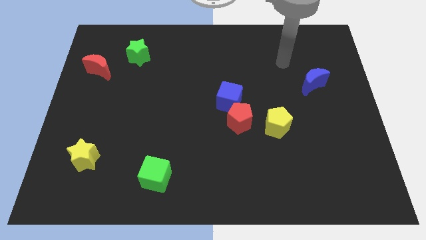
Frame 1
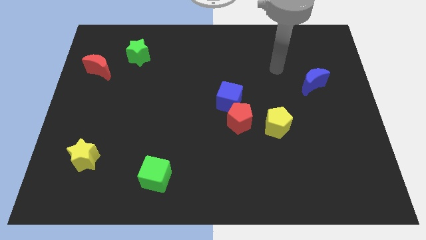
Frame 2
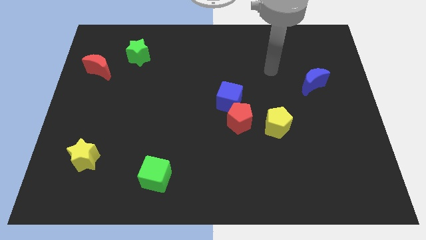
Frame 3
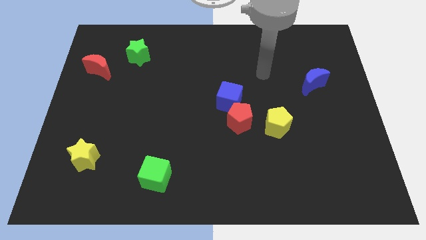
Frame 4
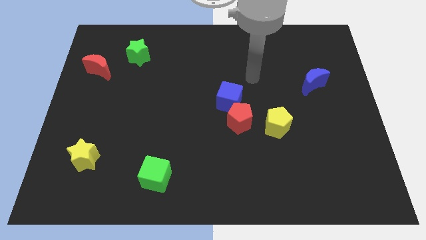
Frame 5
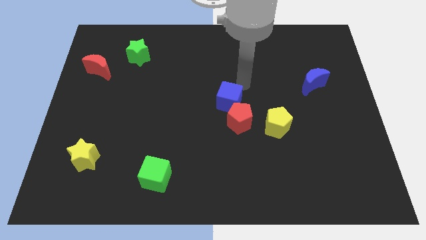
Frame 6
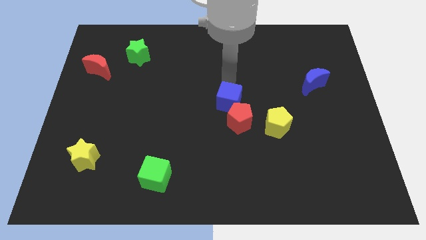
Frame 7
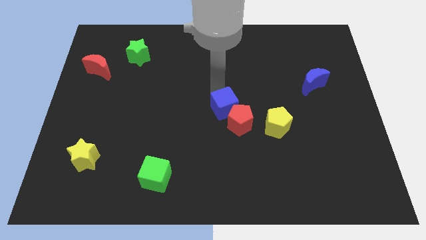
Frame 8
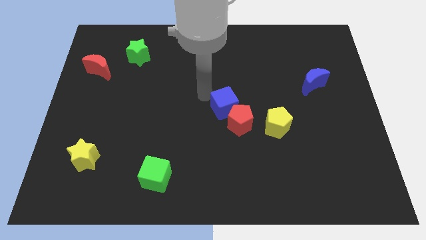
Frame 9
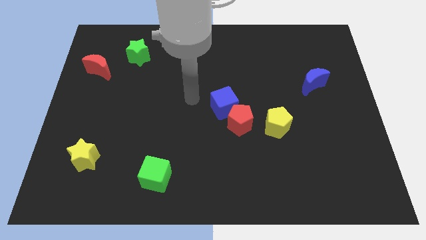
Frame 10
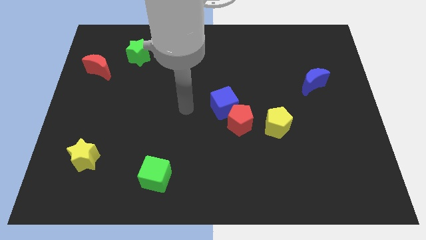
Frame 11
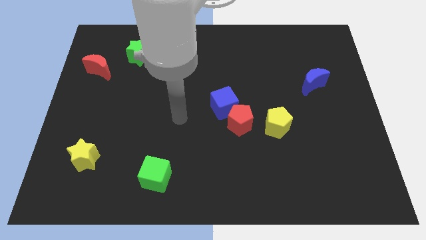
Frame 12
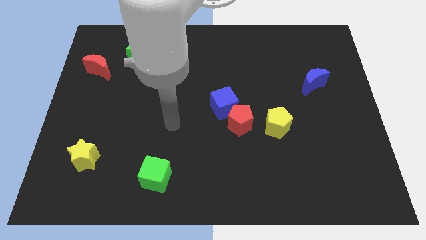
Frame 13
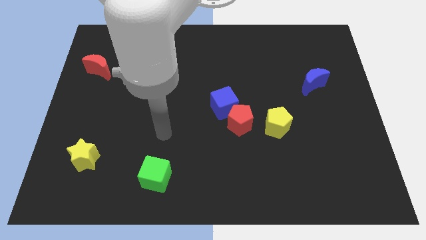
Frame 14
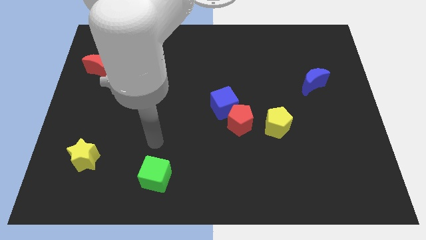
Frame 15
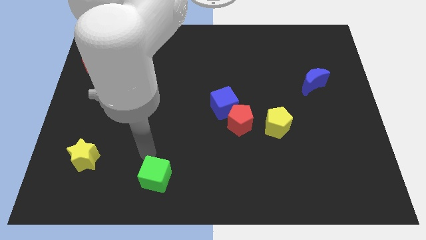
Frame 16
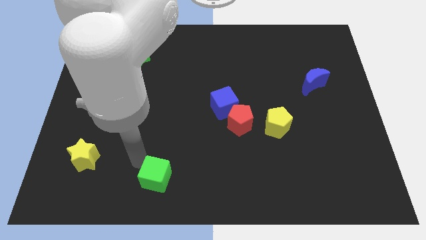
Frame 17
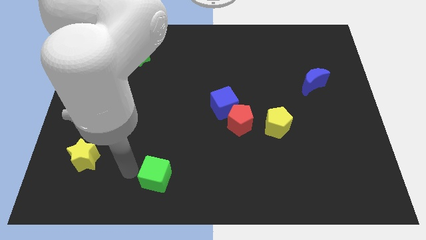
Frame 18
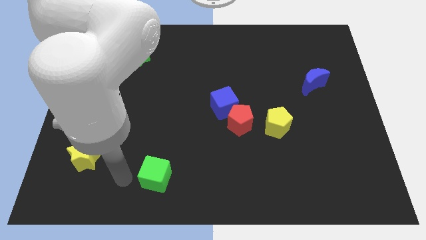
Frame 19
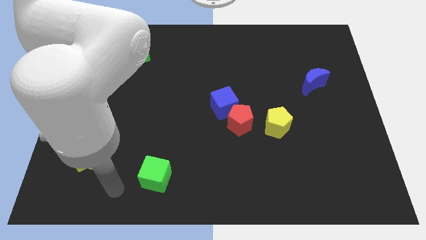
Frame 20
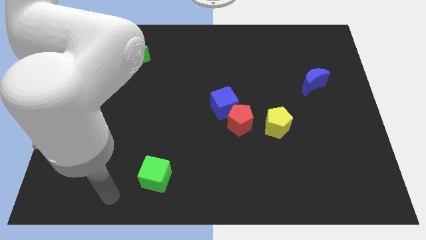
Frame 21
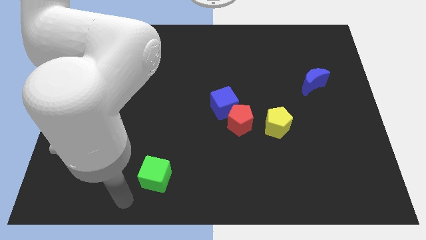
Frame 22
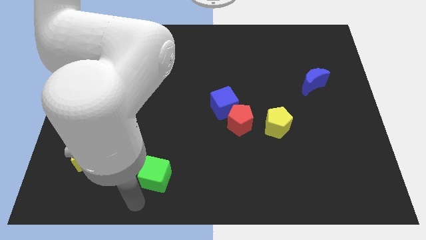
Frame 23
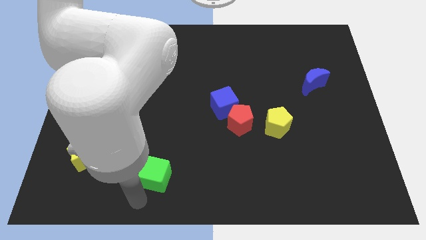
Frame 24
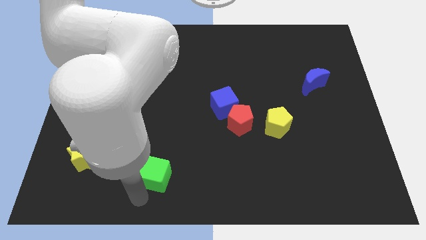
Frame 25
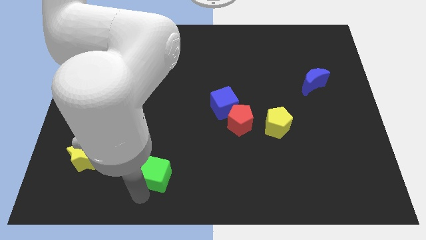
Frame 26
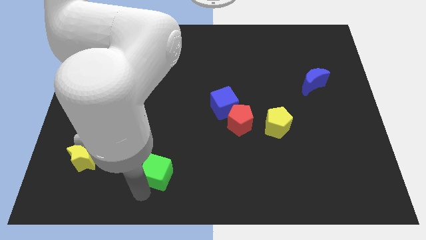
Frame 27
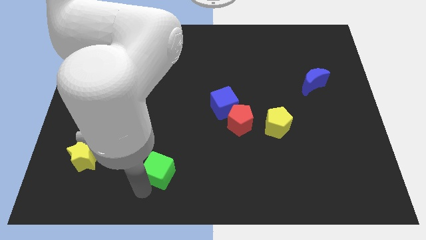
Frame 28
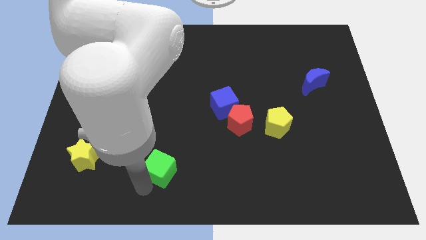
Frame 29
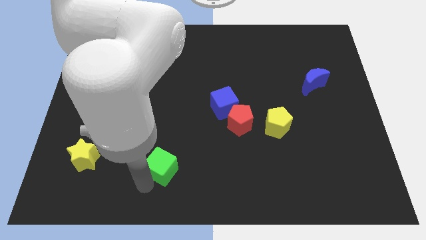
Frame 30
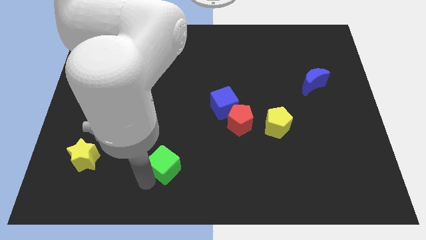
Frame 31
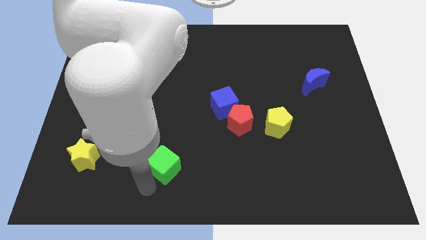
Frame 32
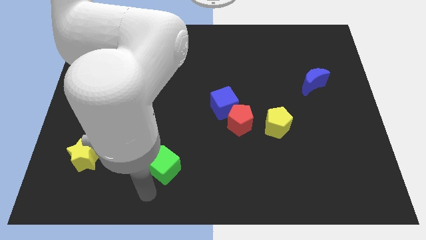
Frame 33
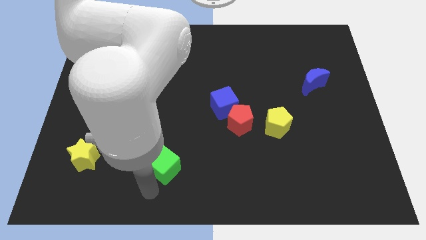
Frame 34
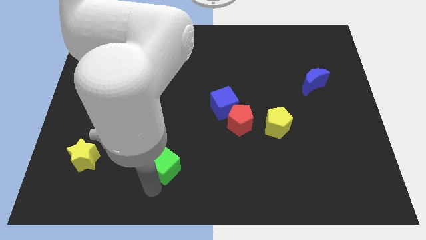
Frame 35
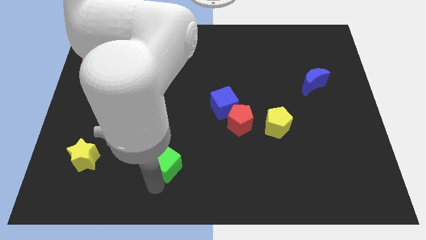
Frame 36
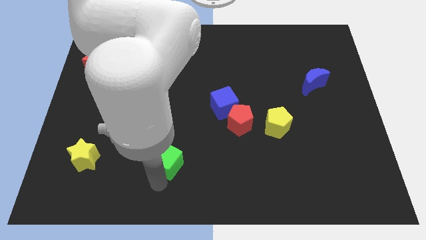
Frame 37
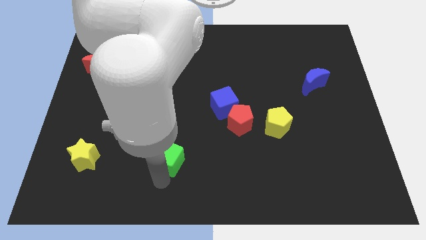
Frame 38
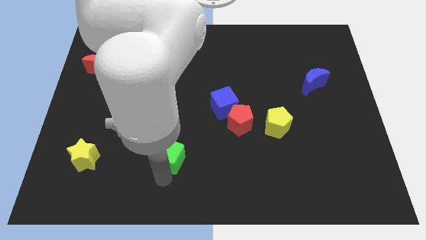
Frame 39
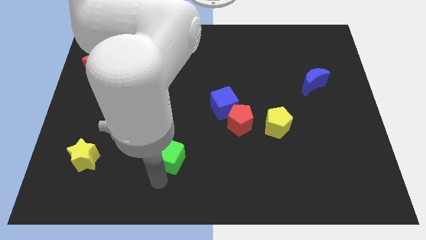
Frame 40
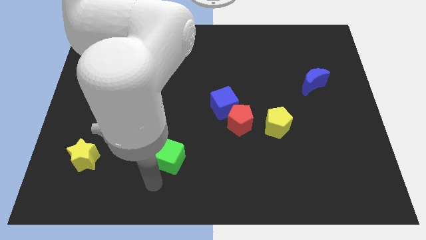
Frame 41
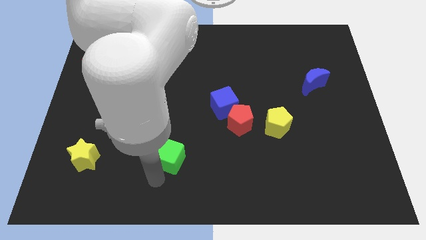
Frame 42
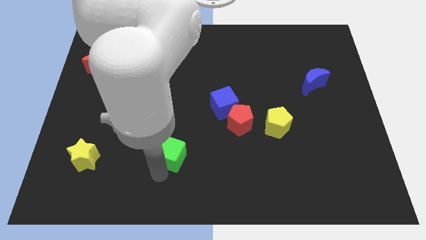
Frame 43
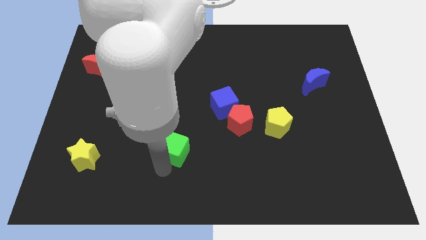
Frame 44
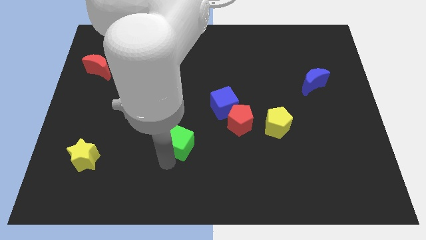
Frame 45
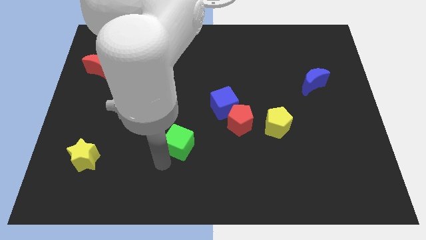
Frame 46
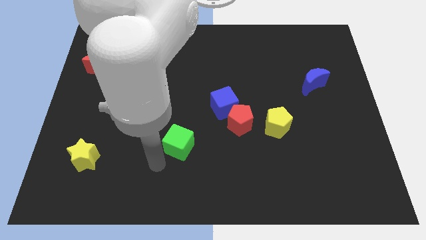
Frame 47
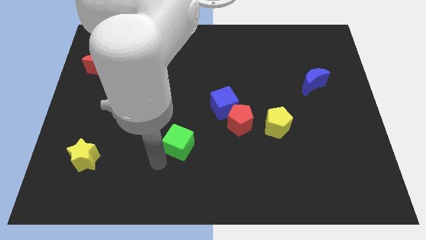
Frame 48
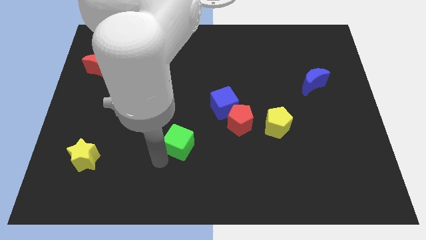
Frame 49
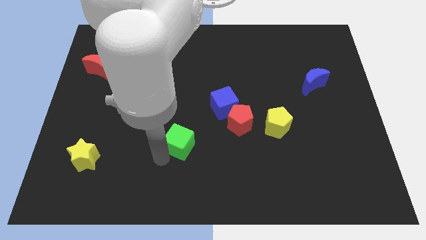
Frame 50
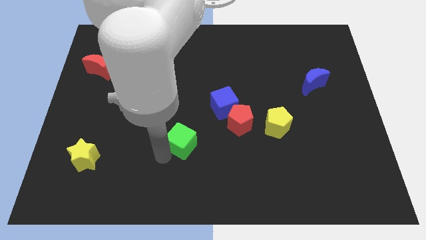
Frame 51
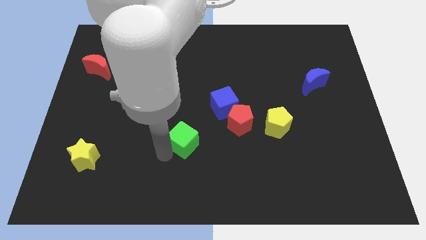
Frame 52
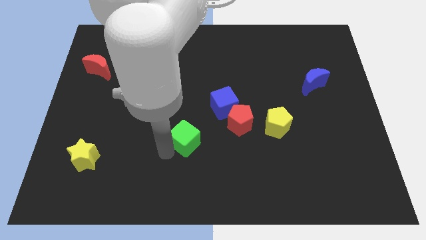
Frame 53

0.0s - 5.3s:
slide the green cube diagonally down and to the left of the blue cube

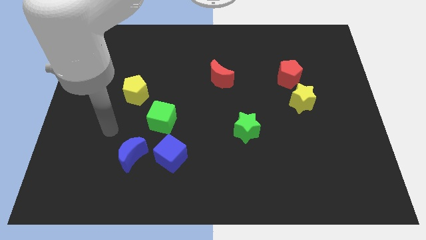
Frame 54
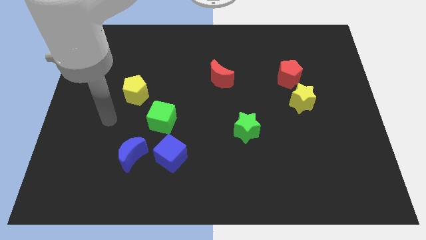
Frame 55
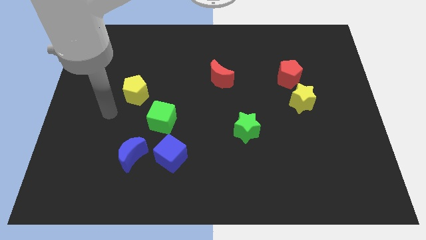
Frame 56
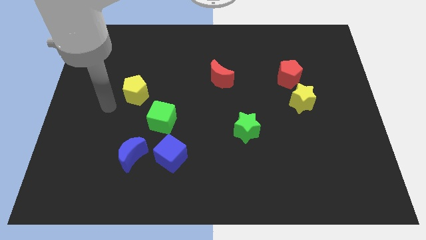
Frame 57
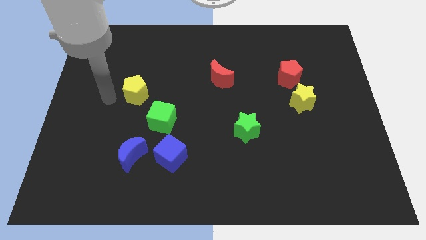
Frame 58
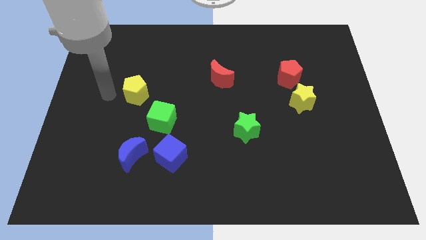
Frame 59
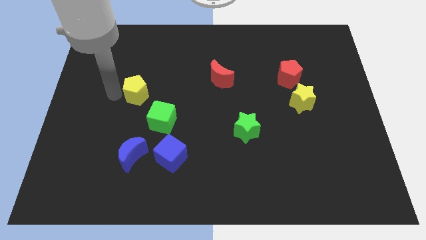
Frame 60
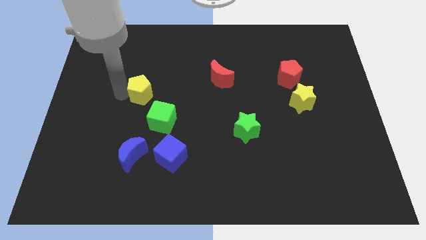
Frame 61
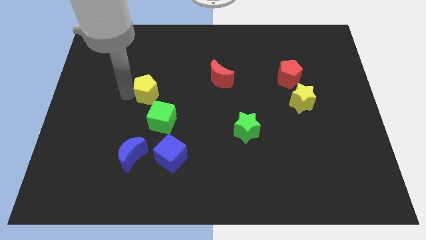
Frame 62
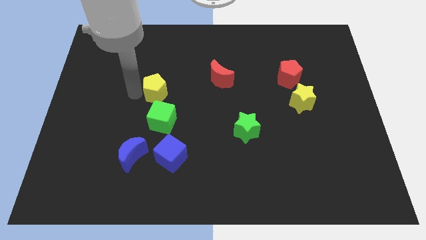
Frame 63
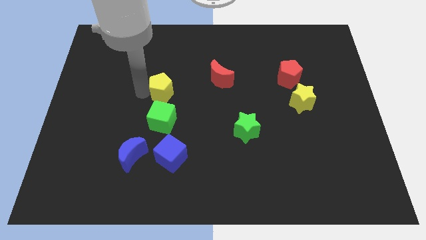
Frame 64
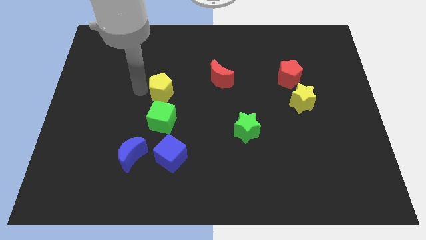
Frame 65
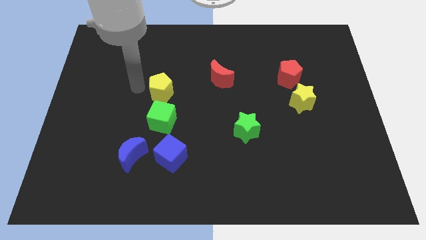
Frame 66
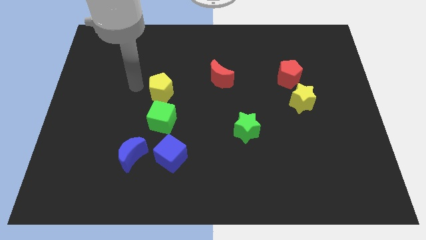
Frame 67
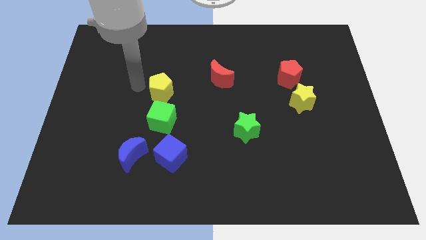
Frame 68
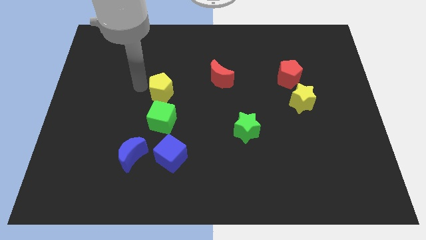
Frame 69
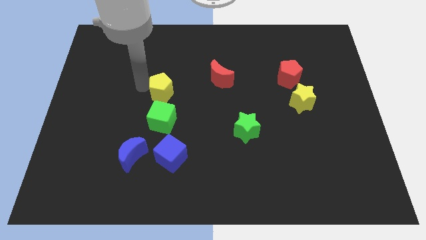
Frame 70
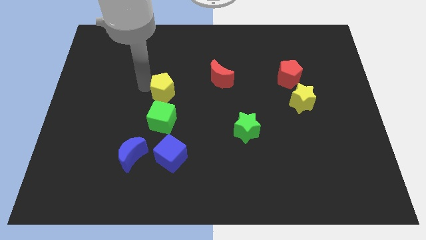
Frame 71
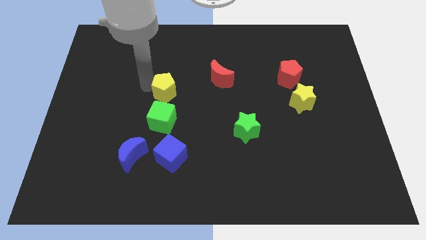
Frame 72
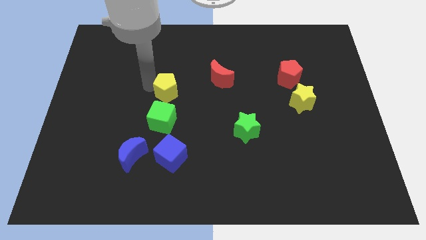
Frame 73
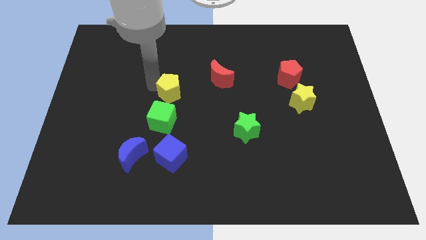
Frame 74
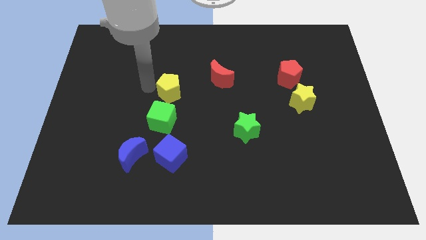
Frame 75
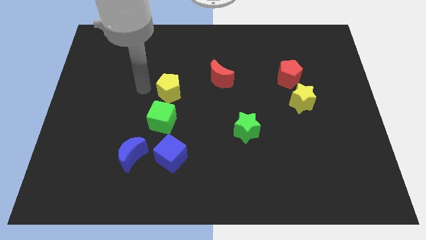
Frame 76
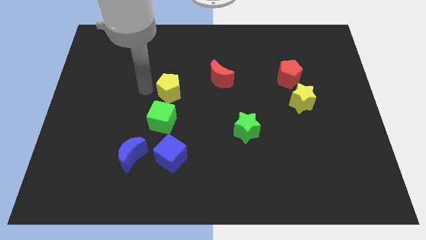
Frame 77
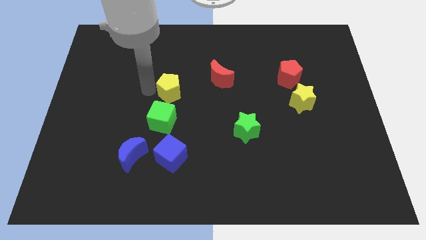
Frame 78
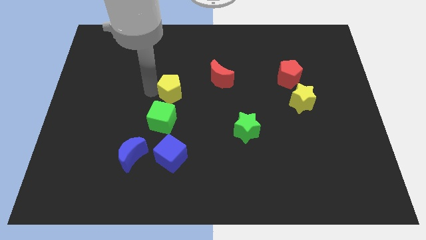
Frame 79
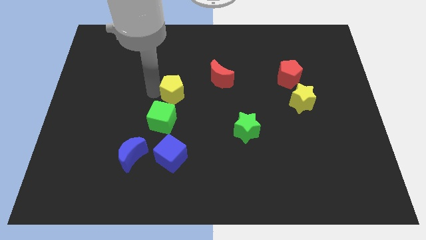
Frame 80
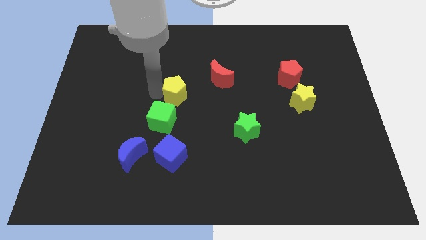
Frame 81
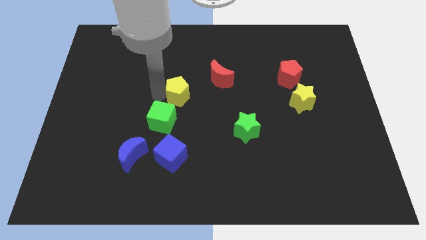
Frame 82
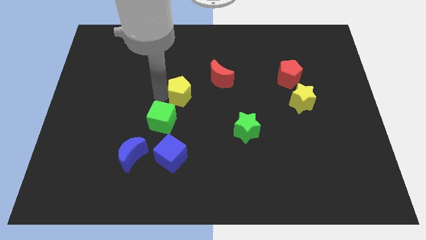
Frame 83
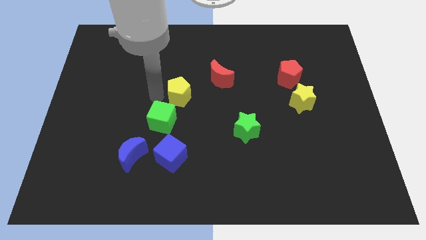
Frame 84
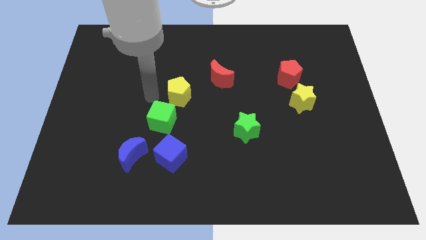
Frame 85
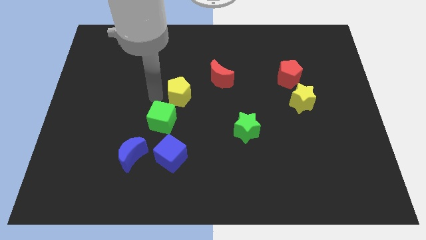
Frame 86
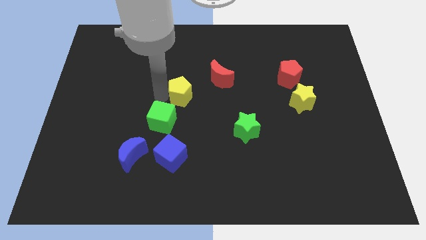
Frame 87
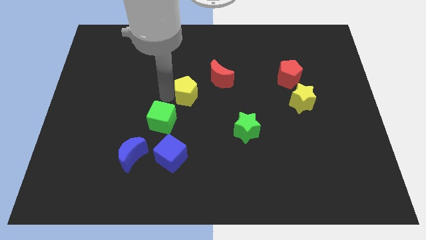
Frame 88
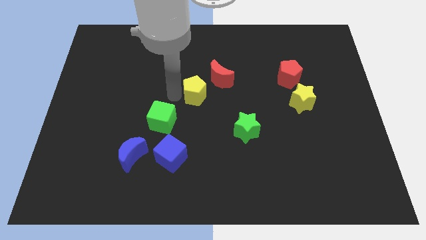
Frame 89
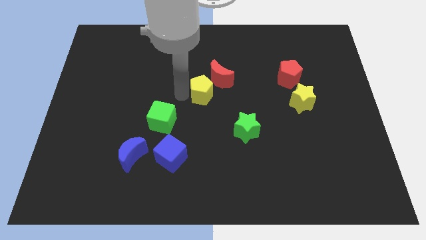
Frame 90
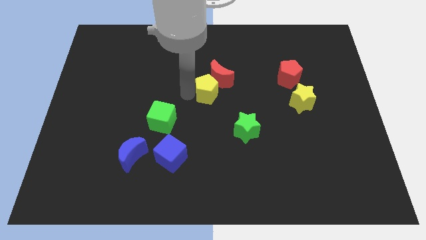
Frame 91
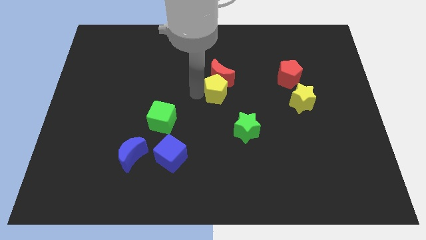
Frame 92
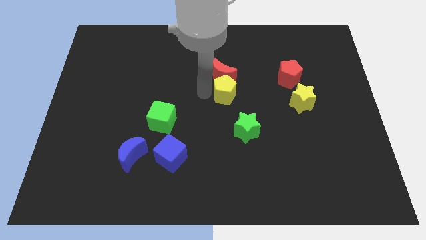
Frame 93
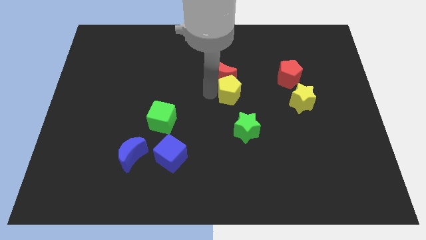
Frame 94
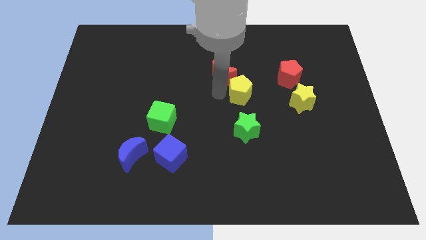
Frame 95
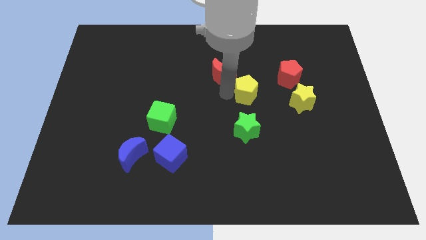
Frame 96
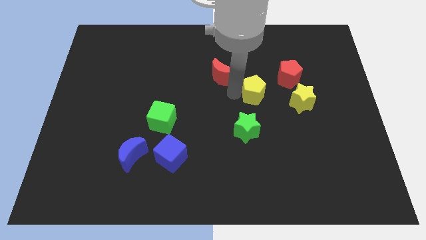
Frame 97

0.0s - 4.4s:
move the yellow pentagon diagonally down and to the left of the red pentagon
